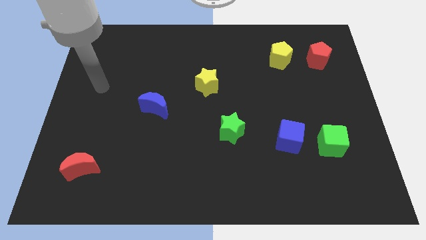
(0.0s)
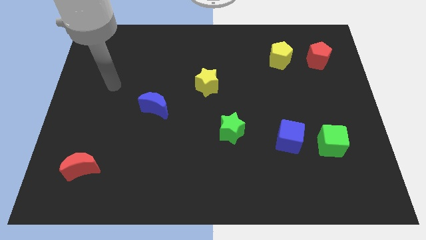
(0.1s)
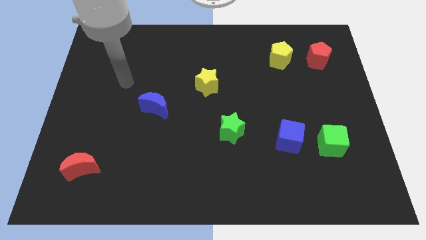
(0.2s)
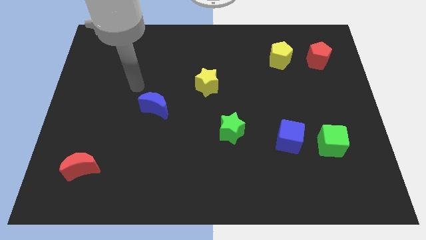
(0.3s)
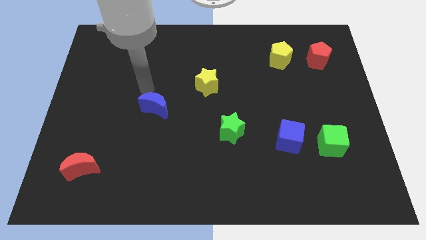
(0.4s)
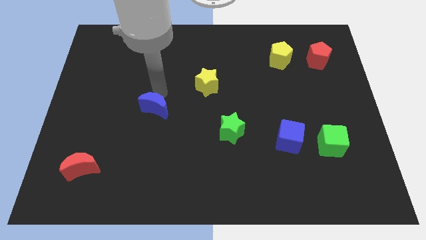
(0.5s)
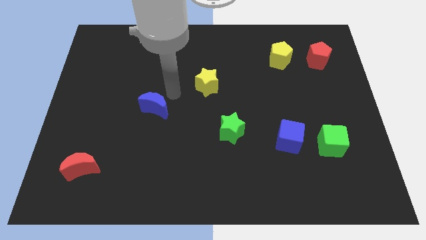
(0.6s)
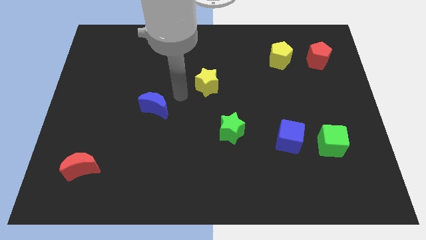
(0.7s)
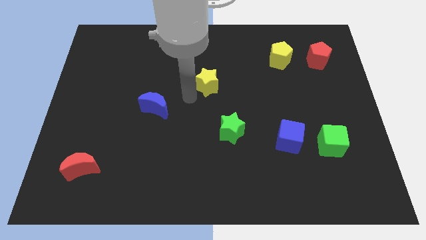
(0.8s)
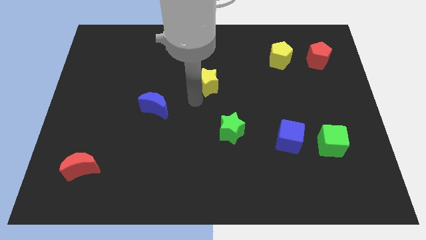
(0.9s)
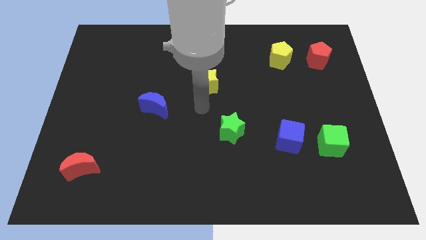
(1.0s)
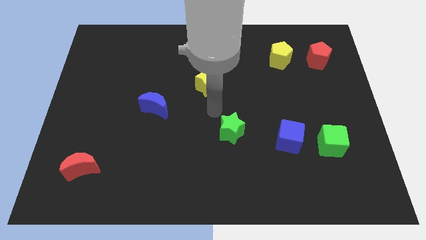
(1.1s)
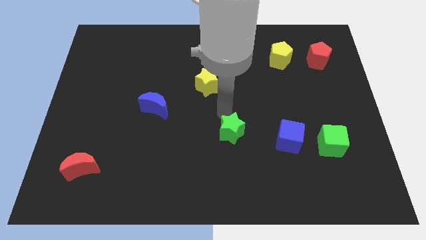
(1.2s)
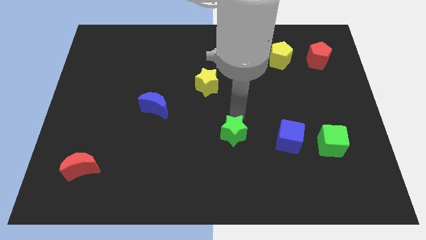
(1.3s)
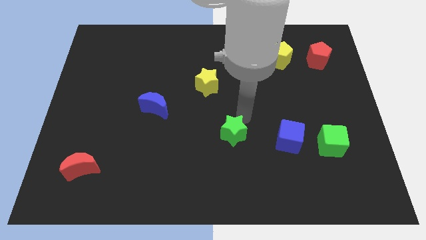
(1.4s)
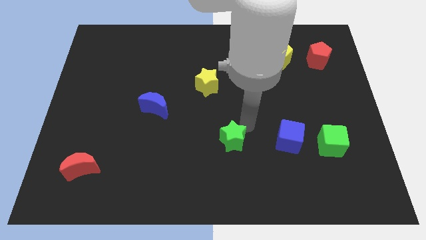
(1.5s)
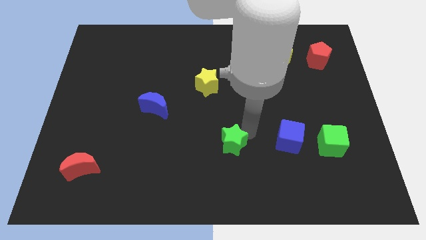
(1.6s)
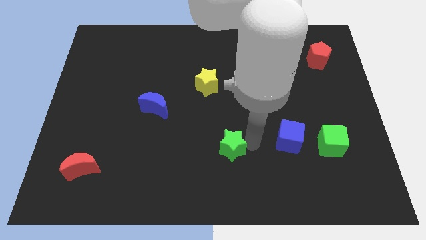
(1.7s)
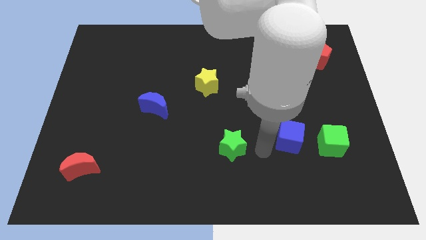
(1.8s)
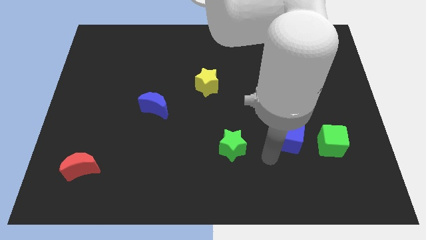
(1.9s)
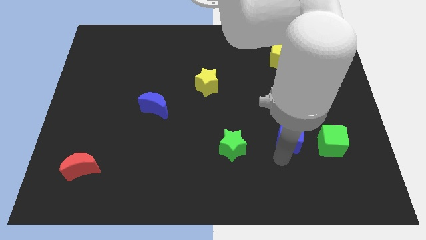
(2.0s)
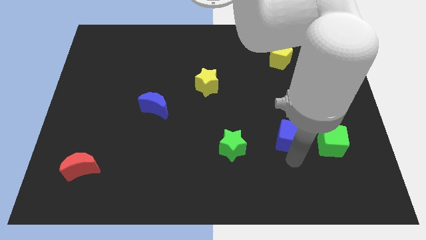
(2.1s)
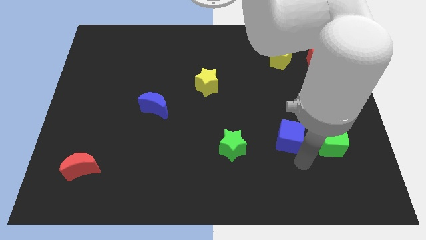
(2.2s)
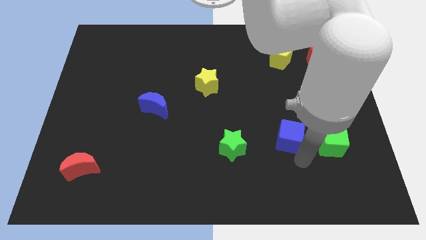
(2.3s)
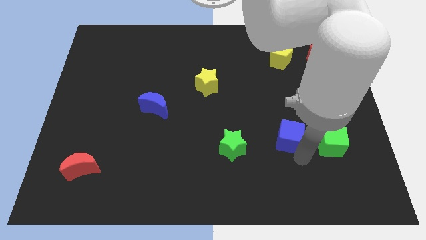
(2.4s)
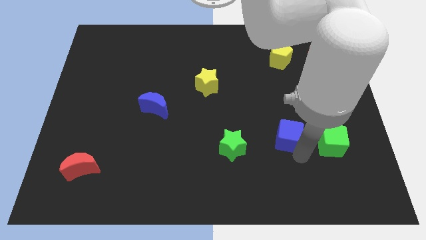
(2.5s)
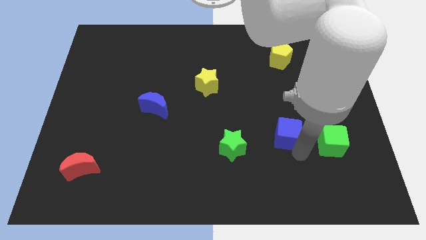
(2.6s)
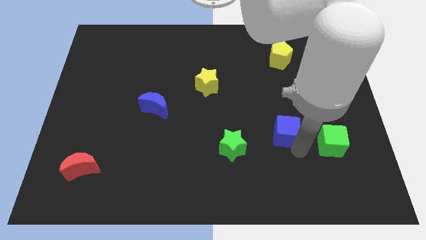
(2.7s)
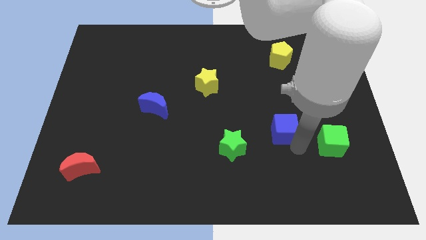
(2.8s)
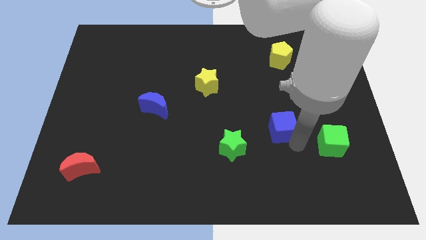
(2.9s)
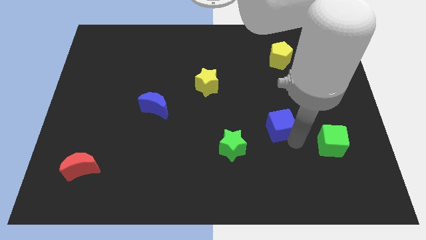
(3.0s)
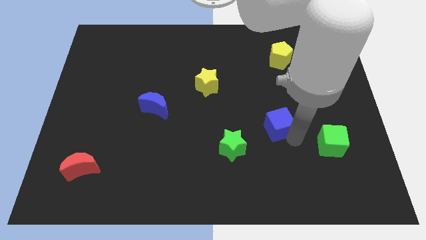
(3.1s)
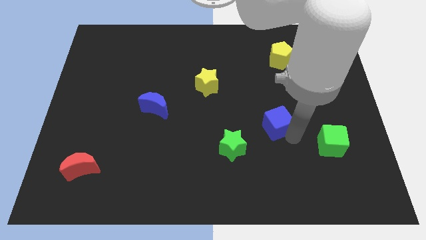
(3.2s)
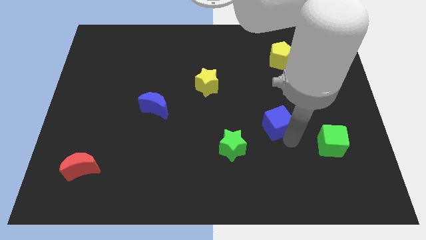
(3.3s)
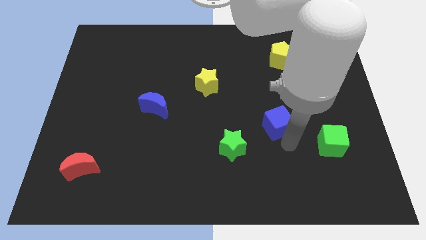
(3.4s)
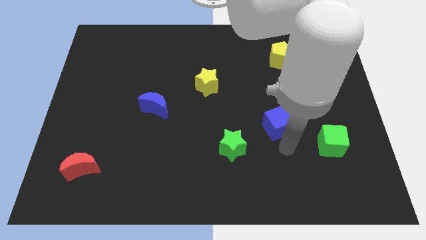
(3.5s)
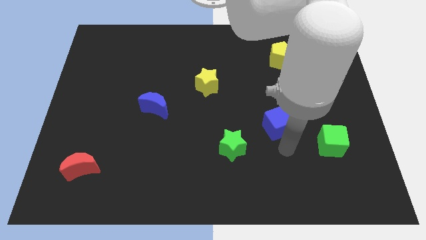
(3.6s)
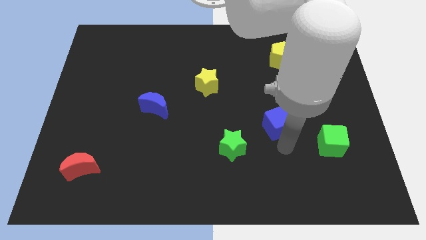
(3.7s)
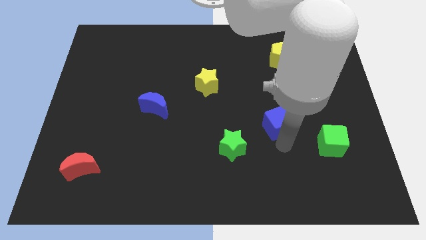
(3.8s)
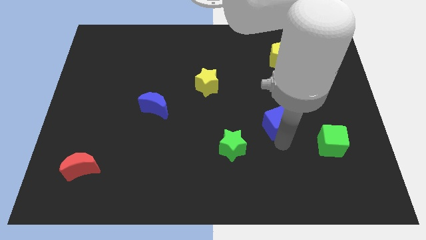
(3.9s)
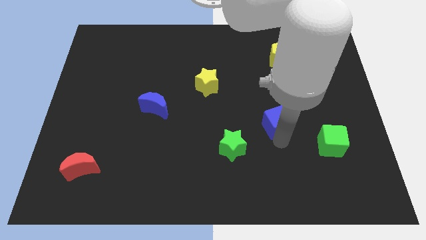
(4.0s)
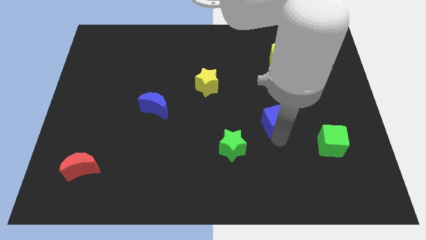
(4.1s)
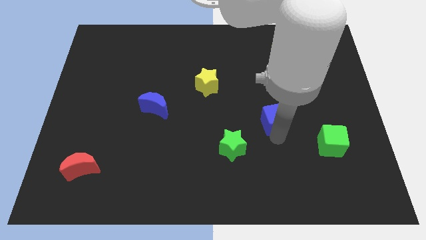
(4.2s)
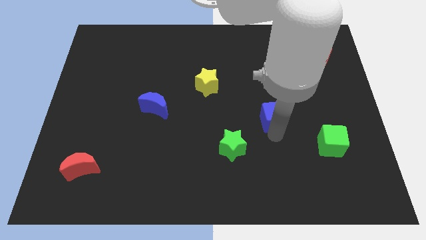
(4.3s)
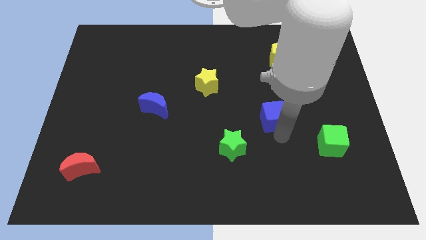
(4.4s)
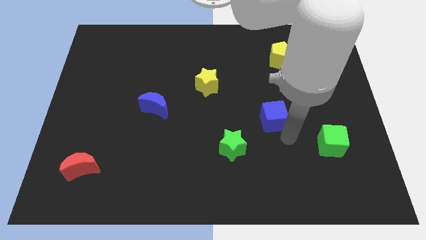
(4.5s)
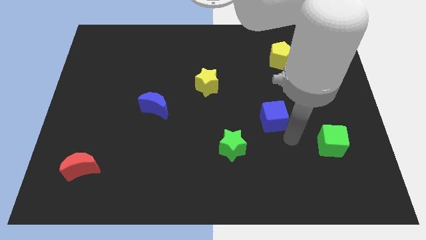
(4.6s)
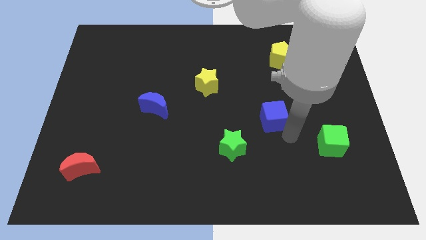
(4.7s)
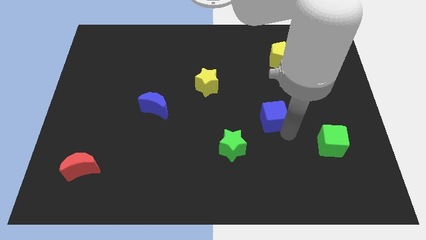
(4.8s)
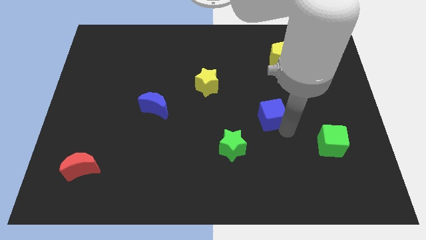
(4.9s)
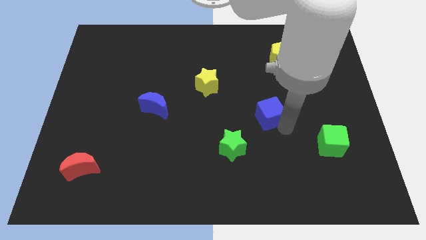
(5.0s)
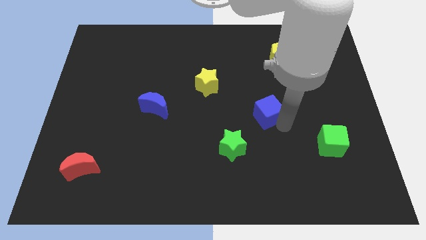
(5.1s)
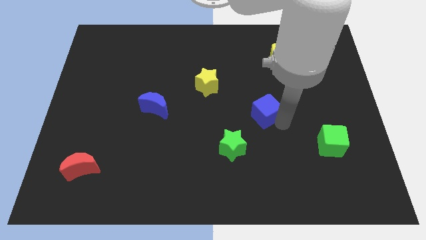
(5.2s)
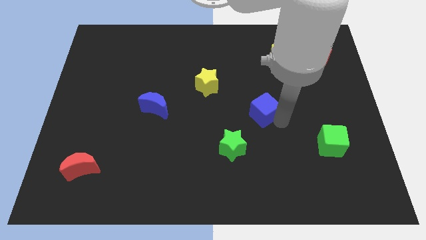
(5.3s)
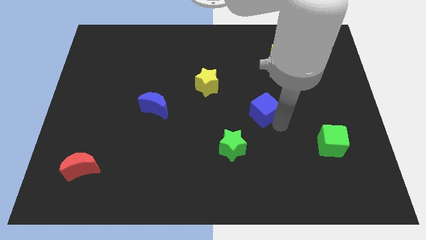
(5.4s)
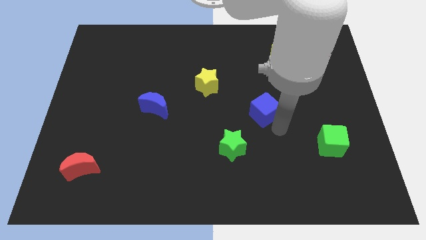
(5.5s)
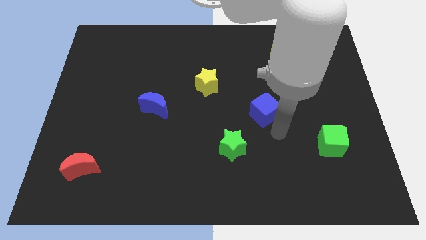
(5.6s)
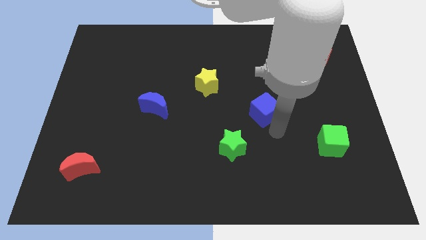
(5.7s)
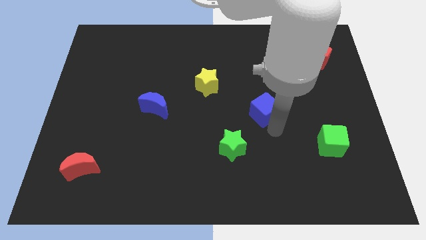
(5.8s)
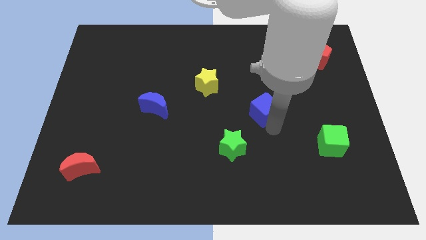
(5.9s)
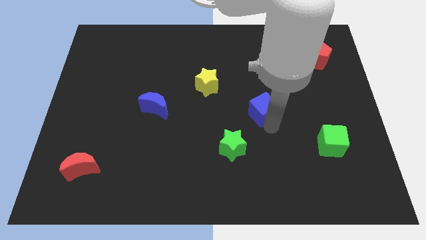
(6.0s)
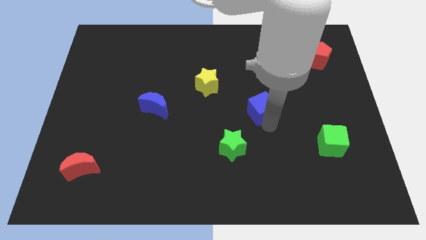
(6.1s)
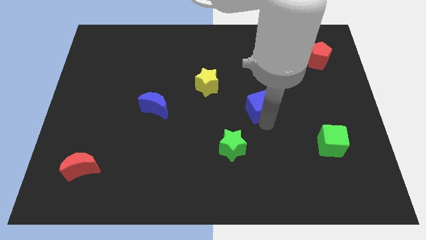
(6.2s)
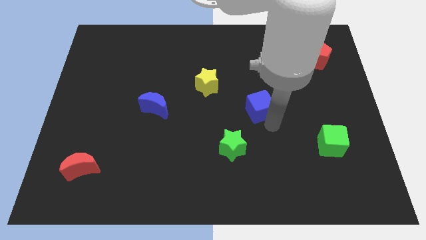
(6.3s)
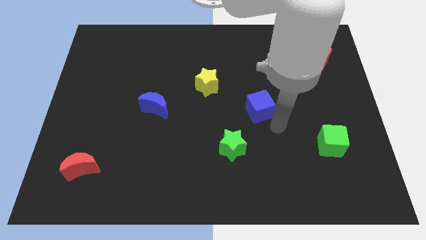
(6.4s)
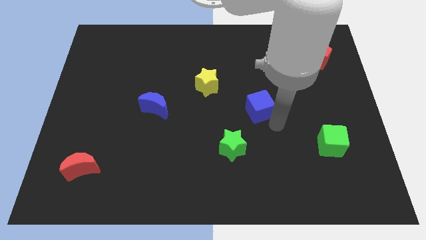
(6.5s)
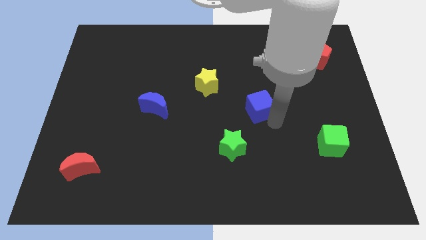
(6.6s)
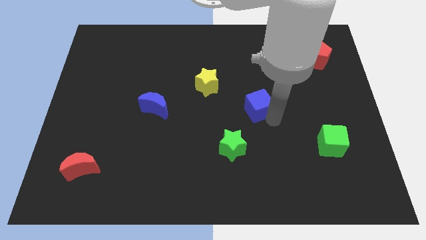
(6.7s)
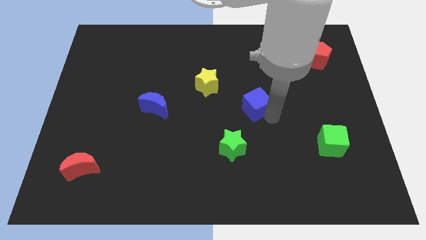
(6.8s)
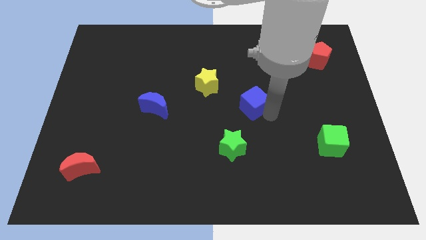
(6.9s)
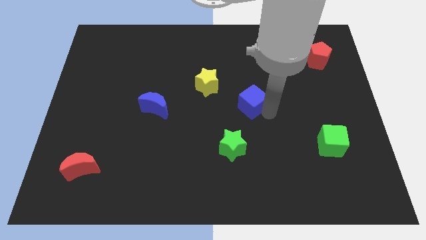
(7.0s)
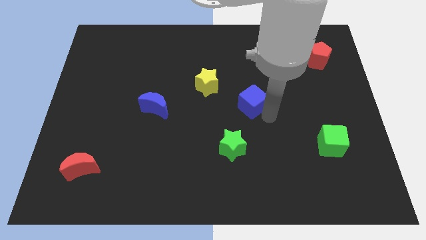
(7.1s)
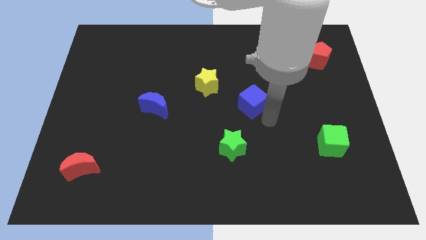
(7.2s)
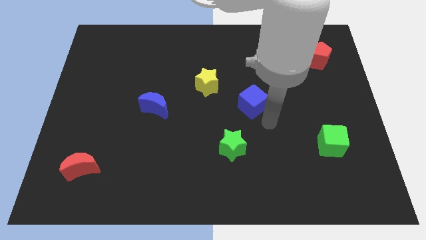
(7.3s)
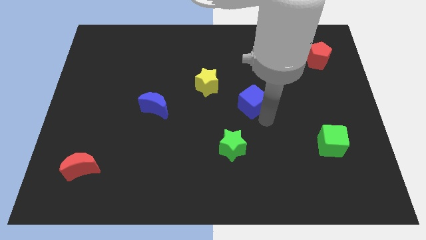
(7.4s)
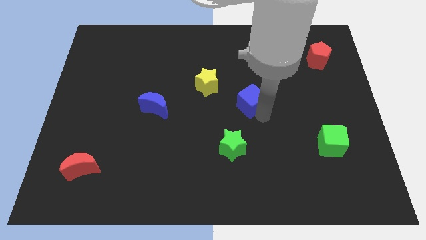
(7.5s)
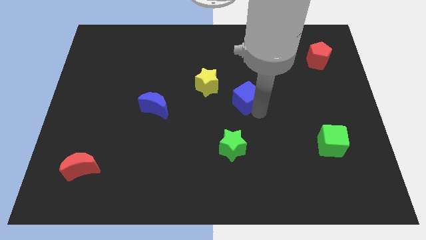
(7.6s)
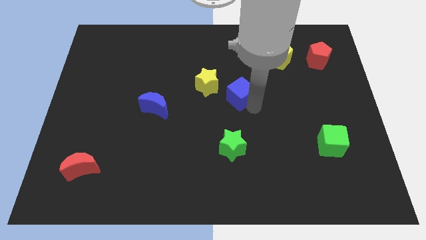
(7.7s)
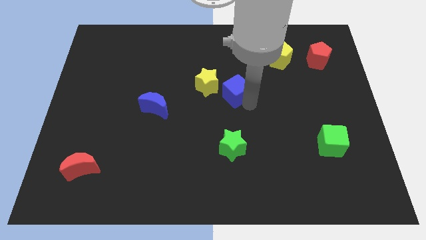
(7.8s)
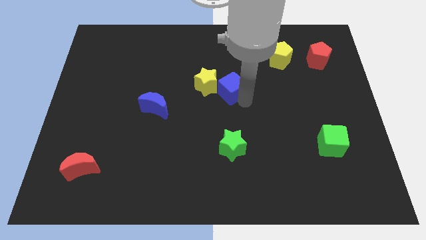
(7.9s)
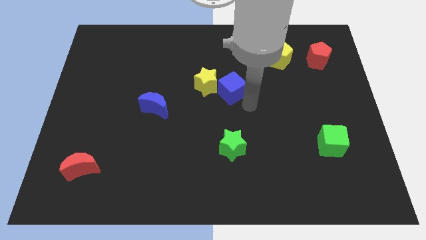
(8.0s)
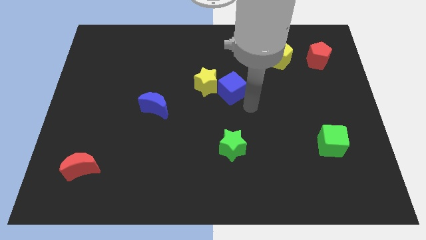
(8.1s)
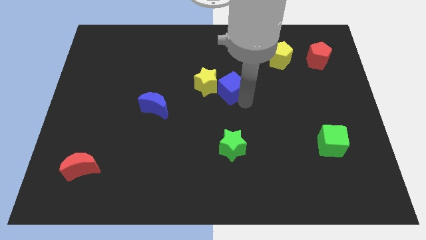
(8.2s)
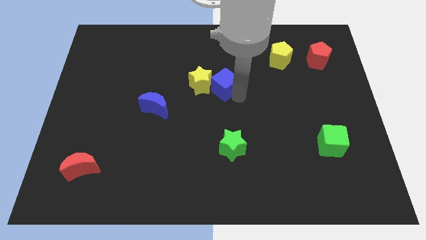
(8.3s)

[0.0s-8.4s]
move the blue cube up and left

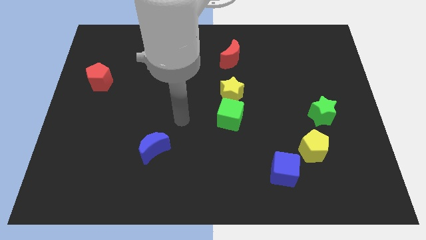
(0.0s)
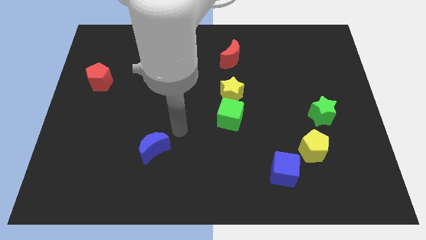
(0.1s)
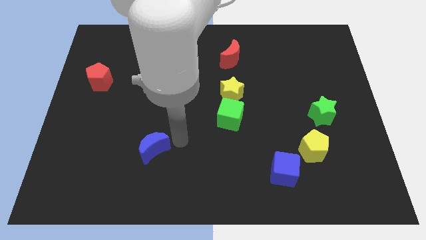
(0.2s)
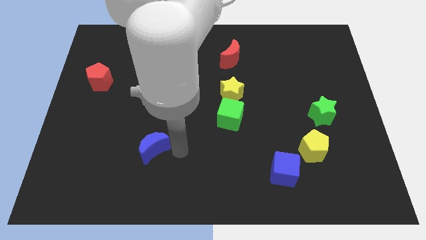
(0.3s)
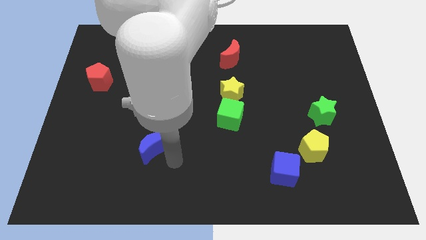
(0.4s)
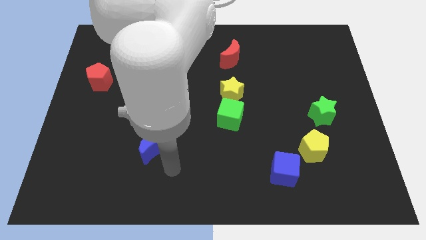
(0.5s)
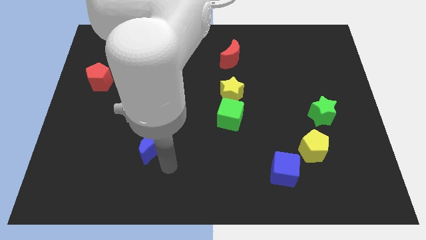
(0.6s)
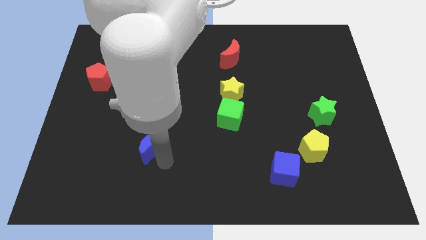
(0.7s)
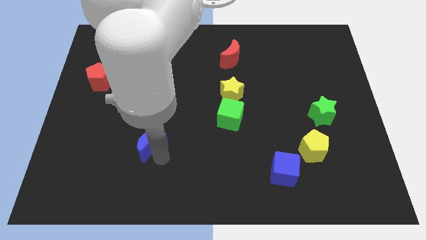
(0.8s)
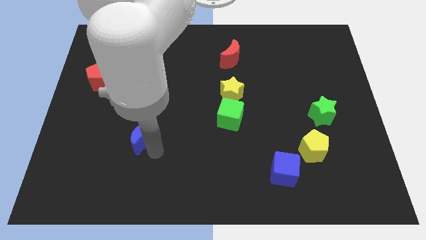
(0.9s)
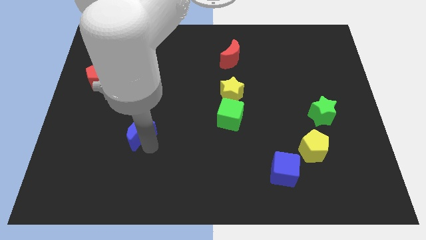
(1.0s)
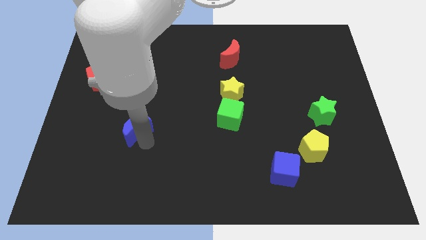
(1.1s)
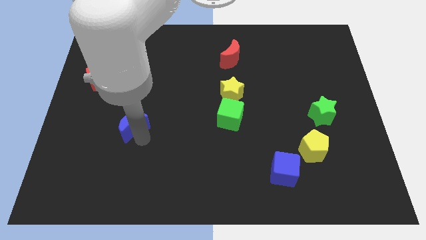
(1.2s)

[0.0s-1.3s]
slide the blue moon upwards and left a little
